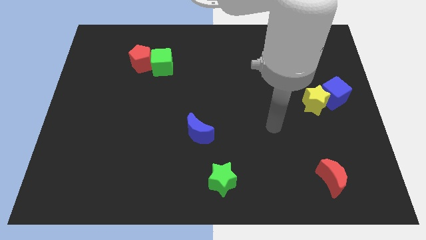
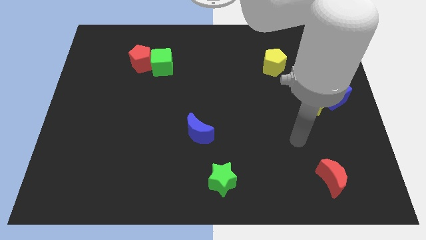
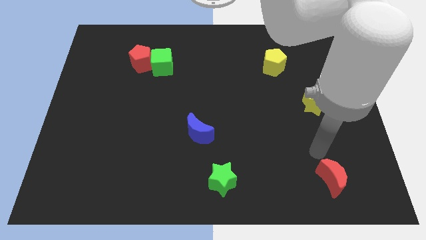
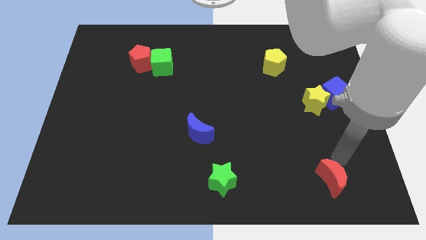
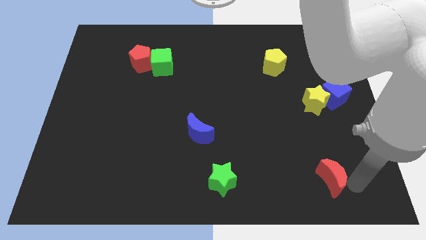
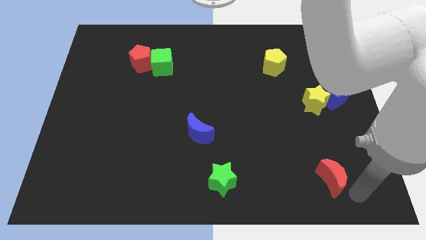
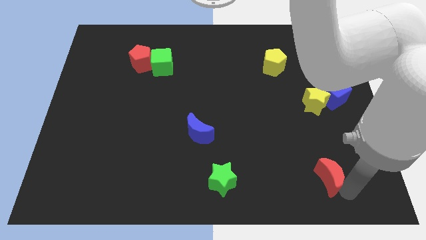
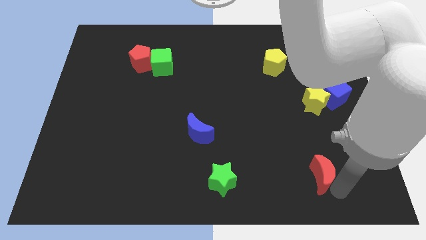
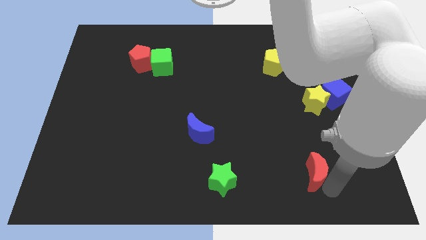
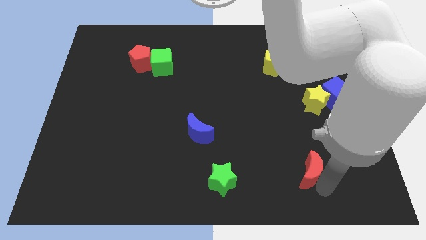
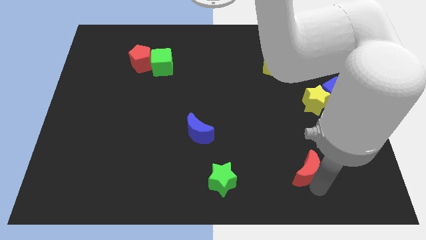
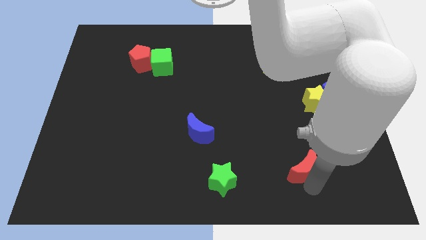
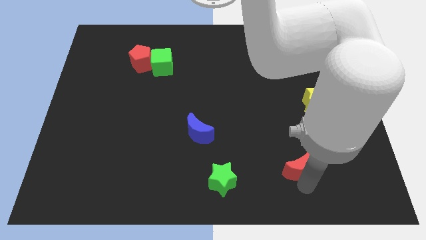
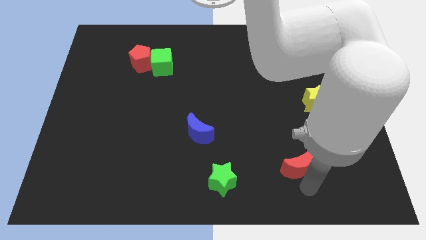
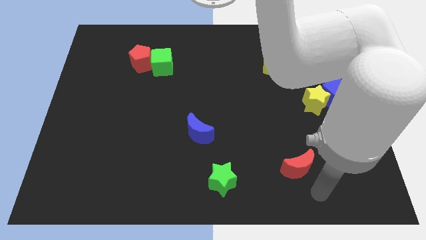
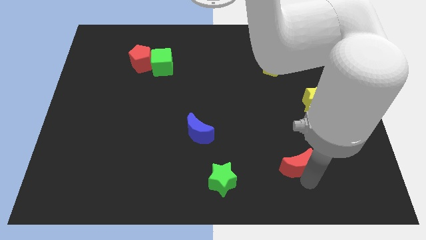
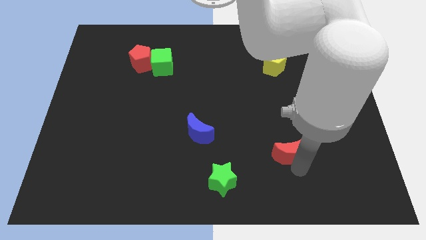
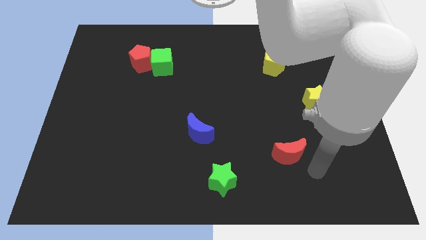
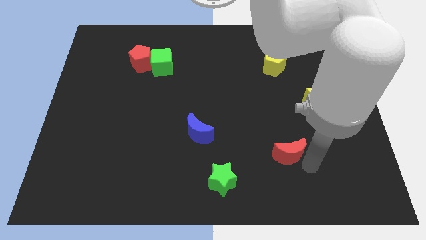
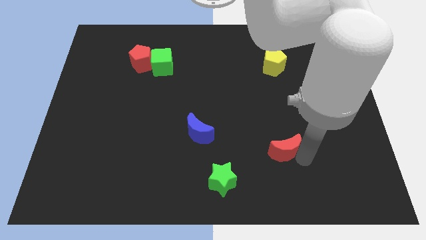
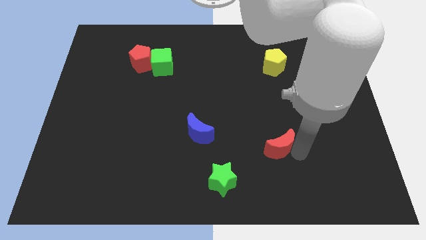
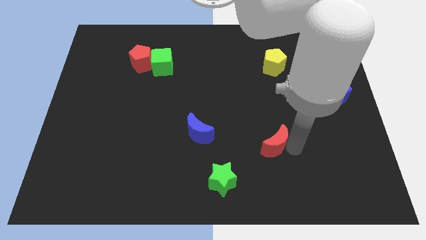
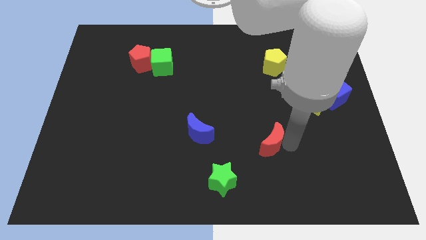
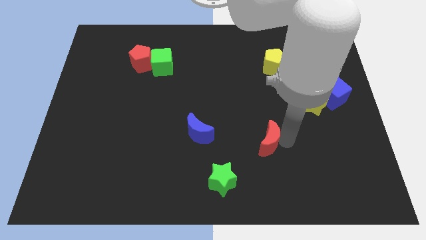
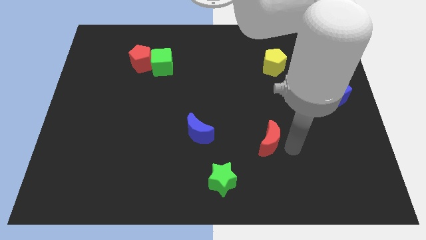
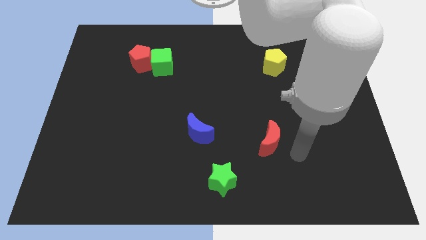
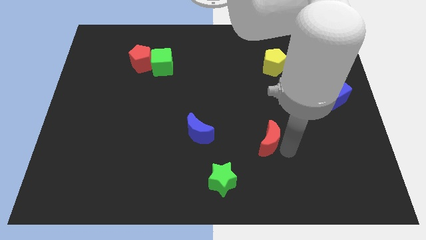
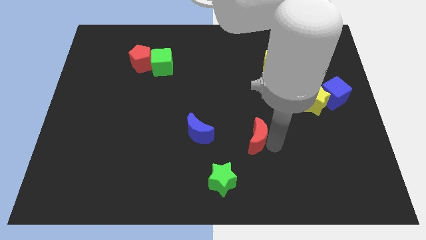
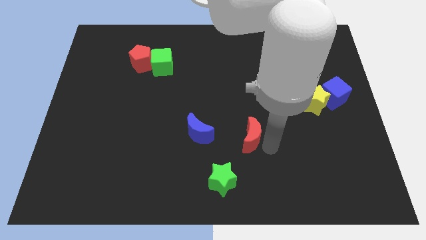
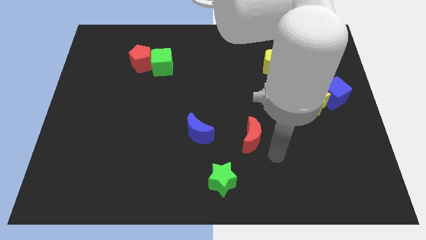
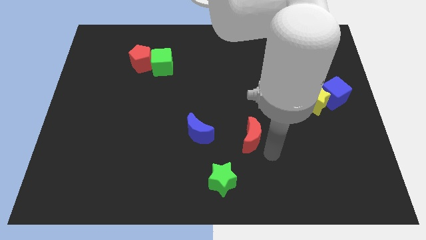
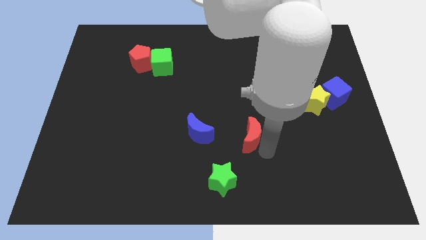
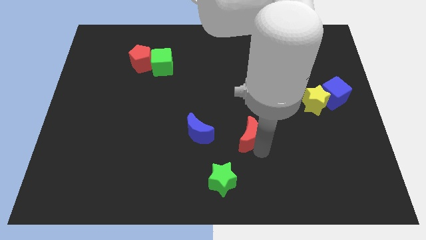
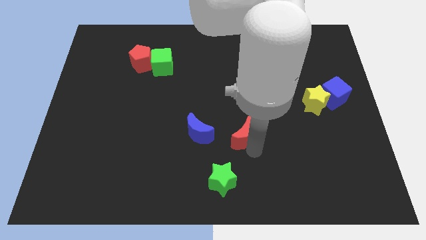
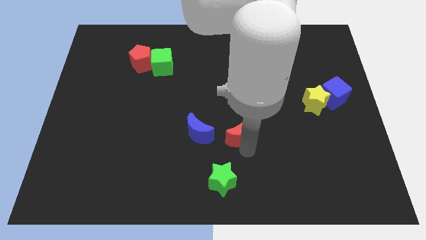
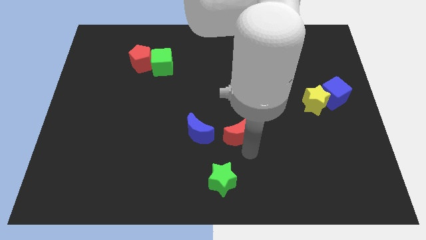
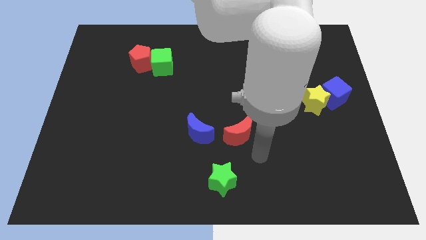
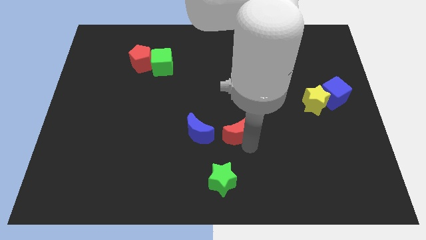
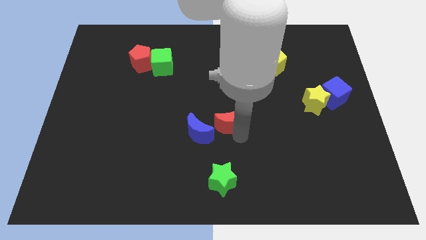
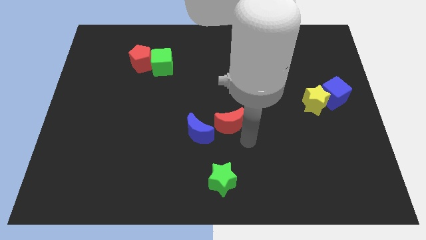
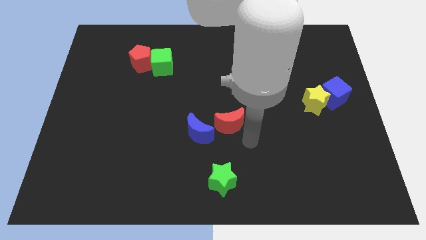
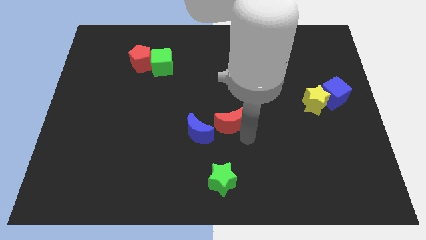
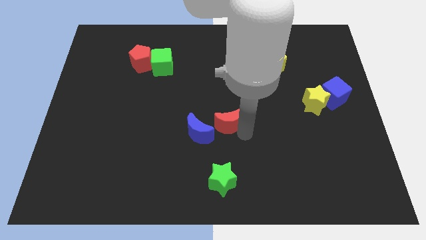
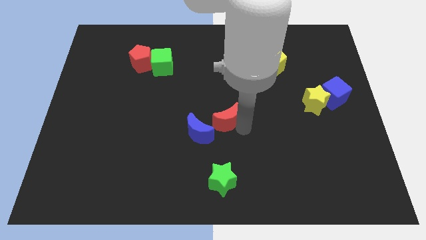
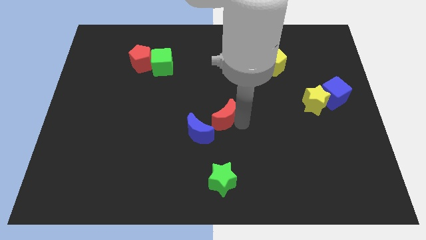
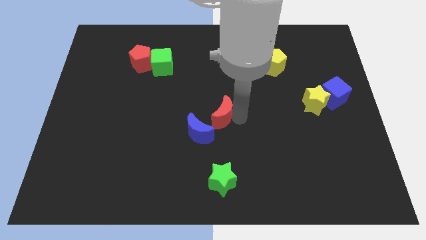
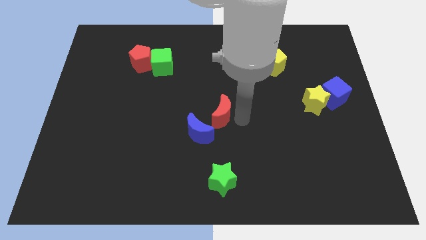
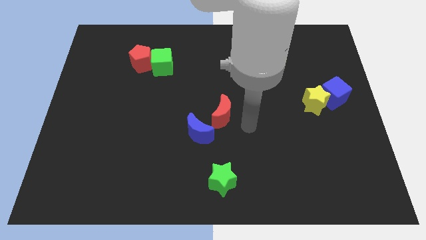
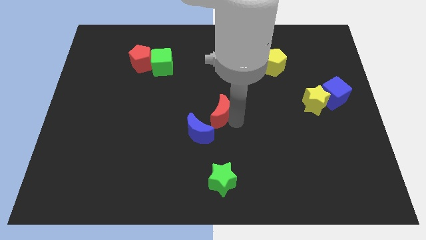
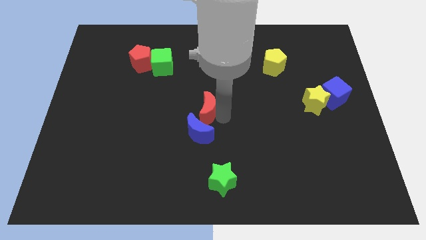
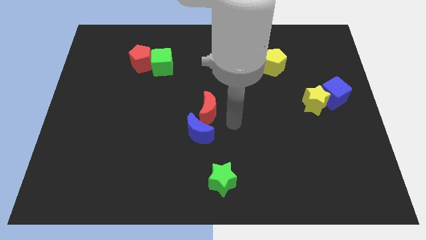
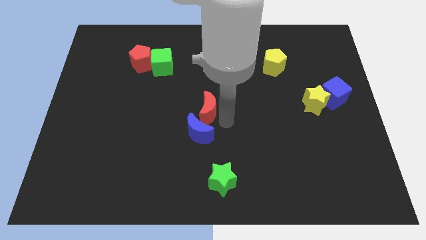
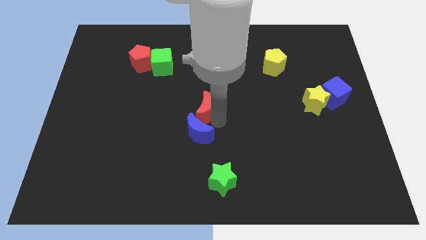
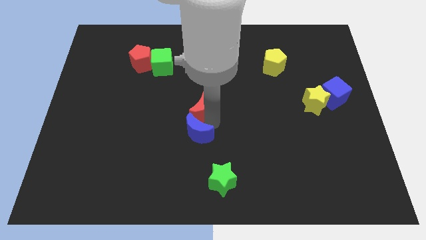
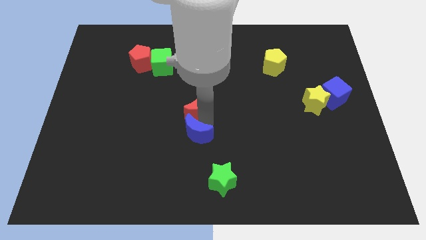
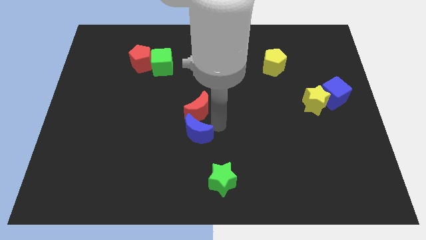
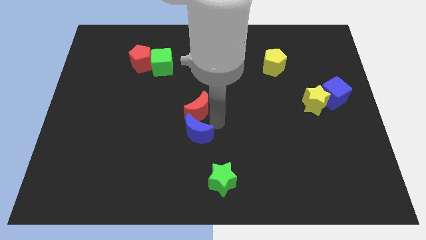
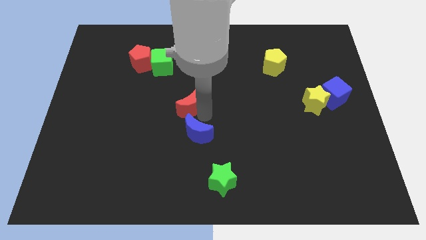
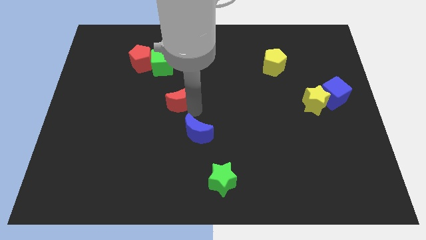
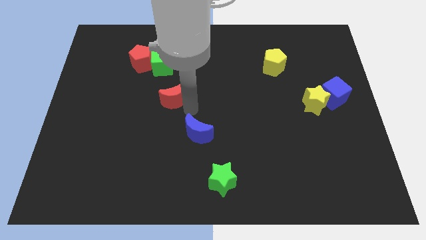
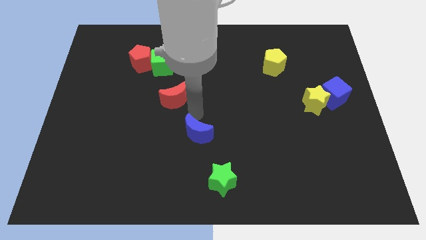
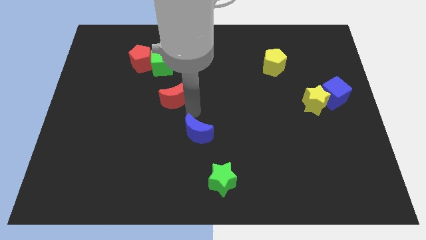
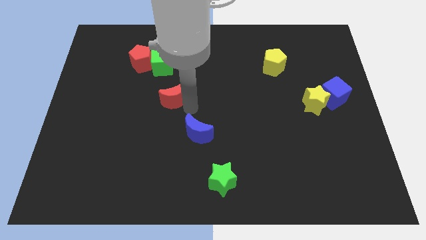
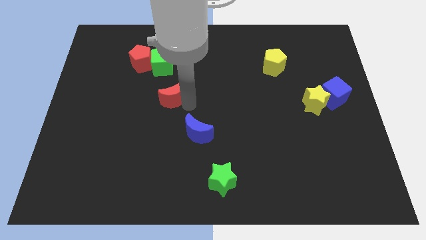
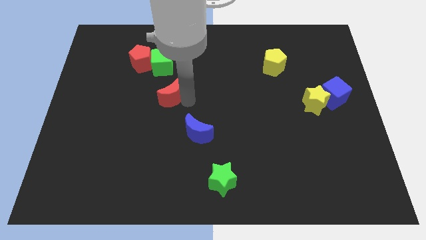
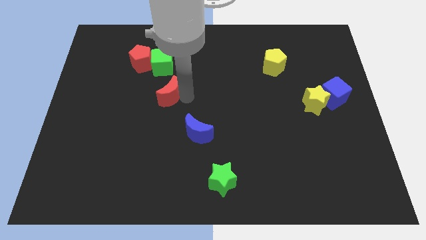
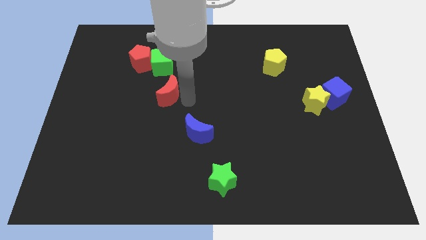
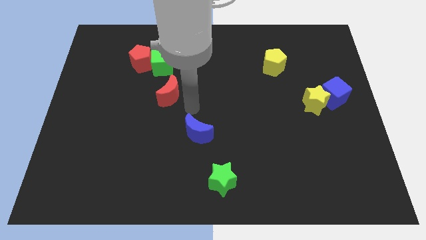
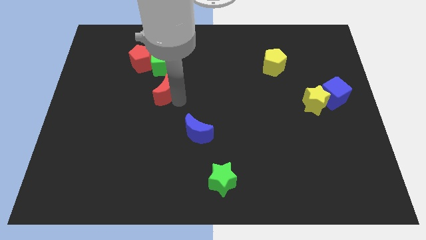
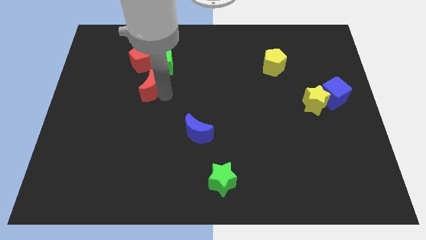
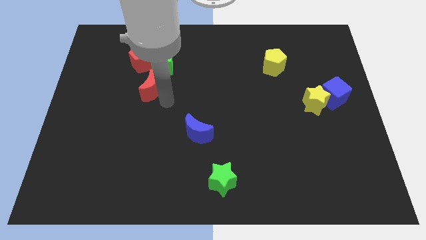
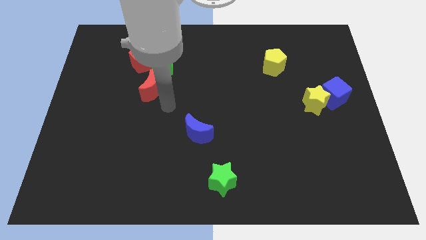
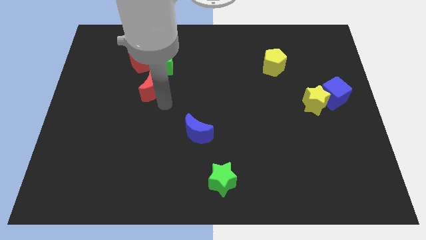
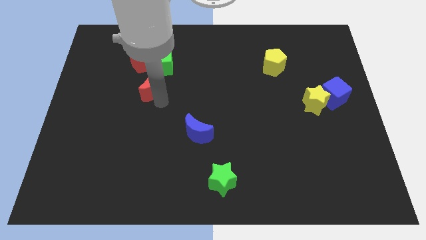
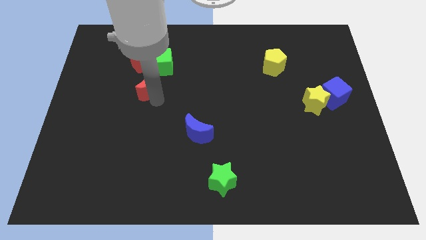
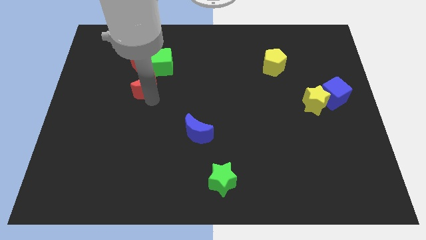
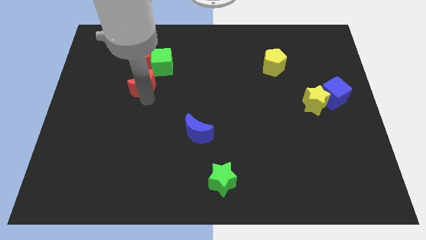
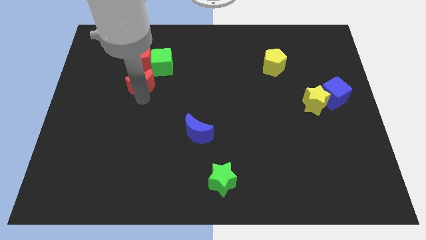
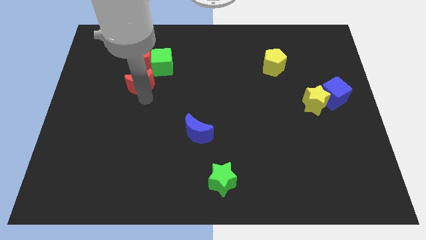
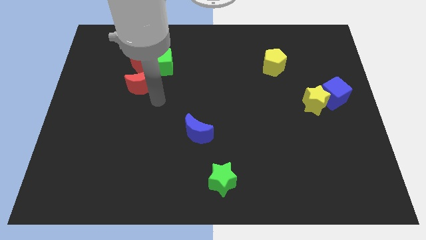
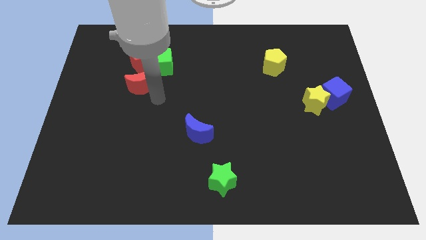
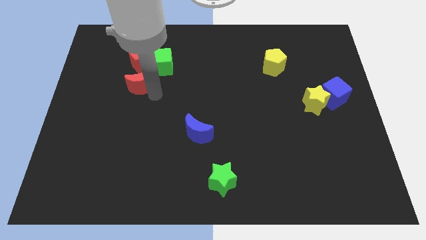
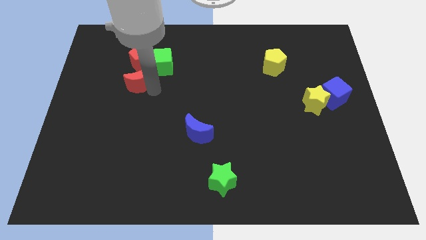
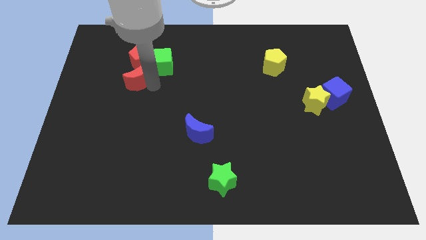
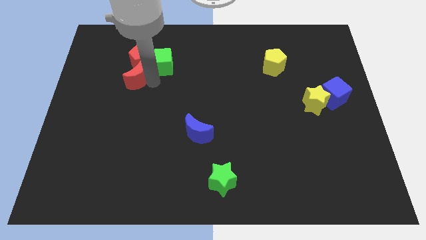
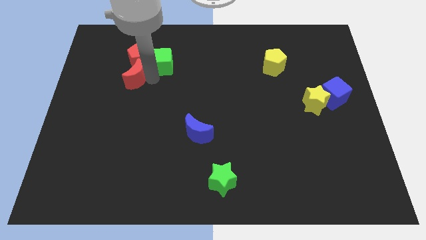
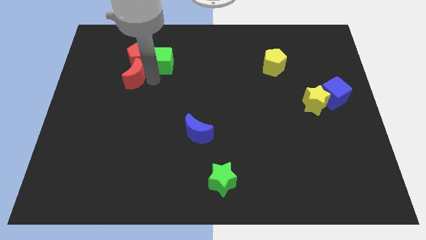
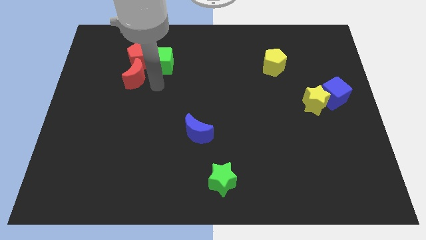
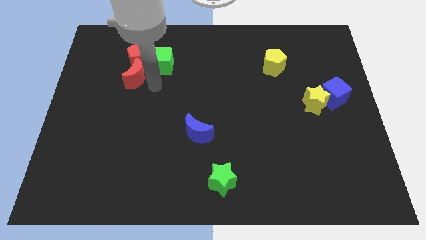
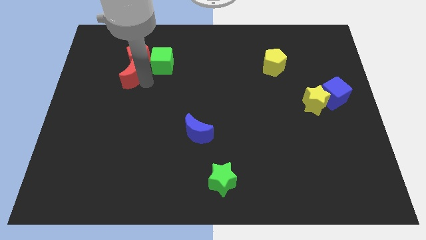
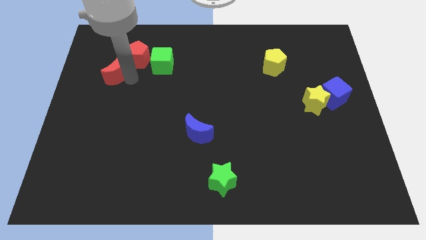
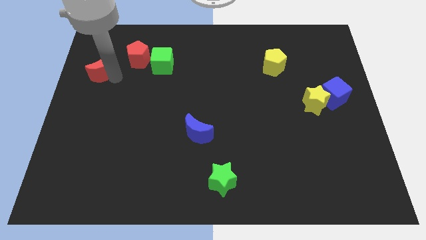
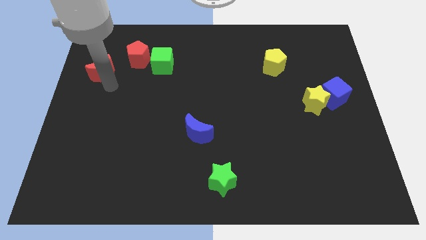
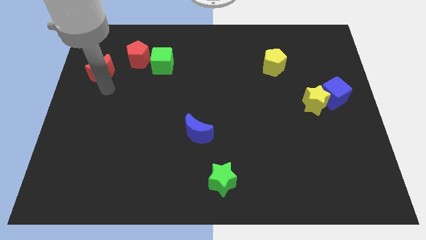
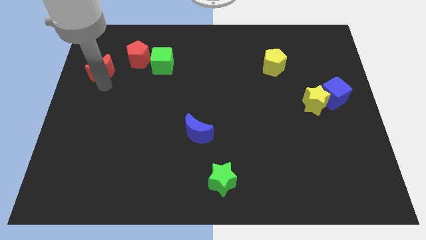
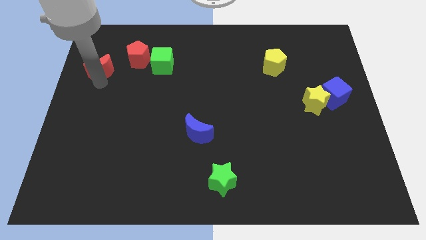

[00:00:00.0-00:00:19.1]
slide the red moon just left of the red pentagon
